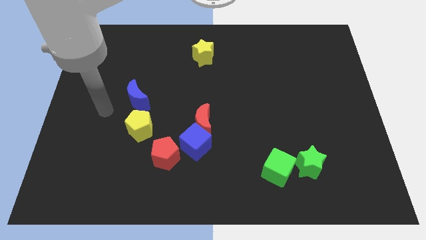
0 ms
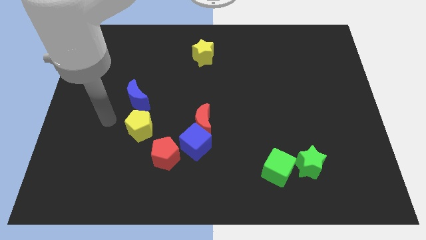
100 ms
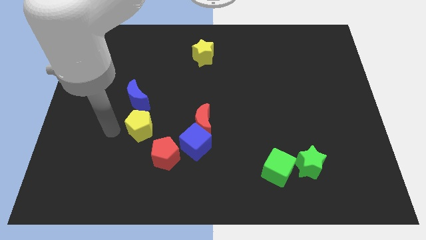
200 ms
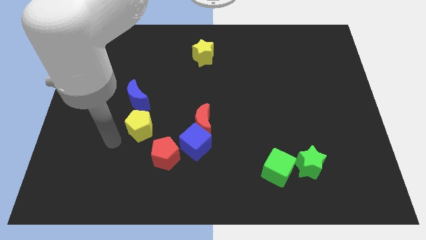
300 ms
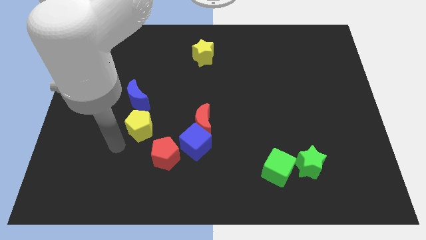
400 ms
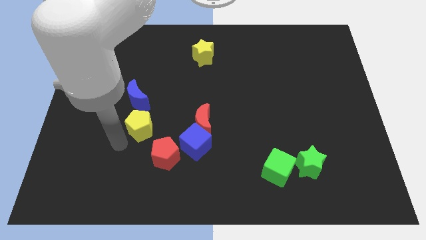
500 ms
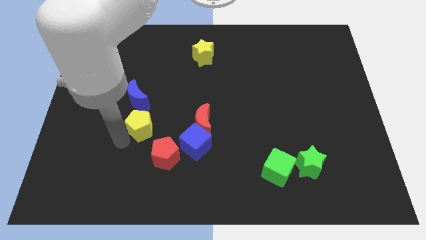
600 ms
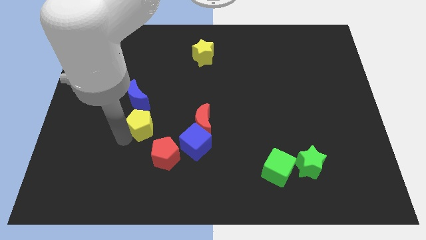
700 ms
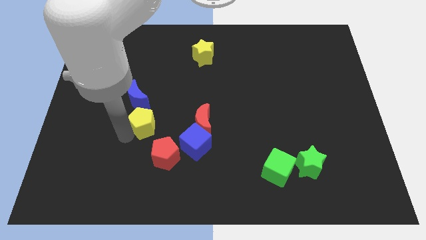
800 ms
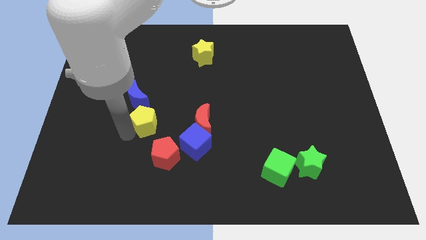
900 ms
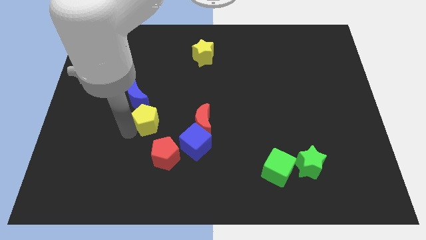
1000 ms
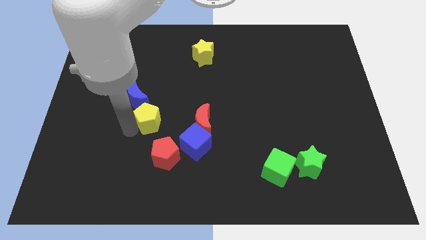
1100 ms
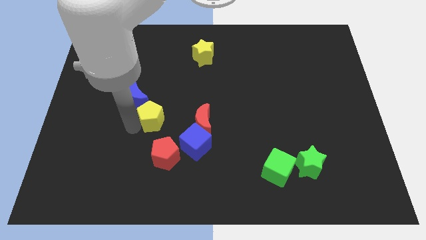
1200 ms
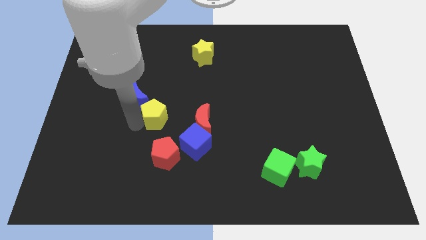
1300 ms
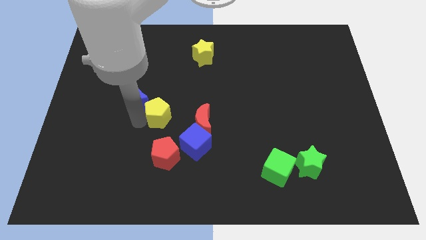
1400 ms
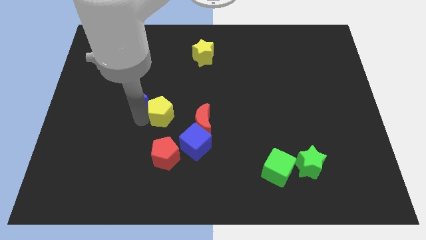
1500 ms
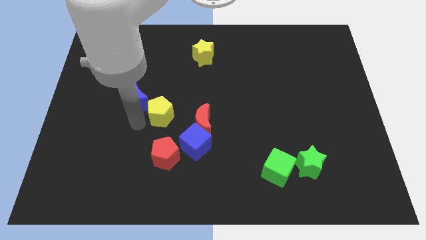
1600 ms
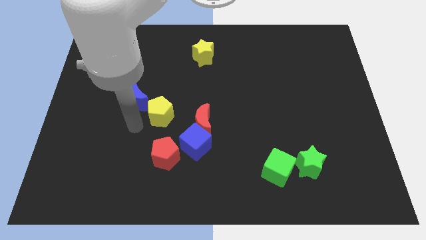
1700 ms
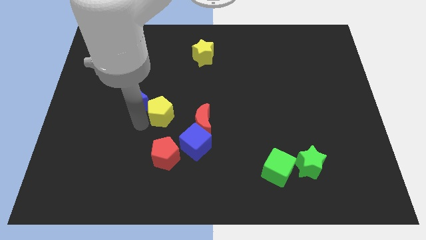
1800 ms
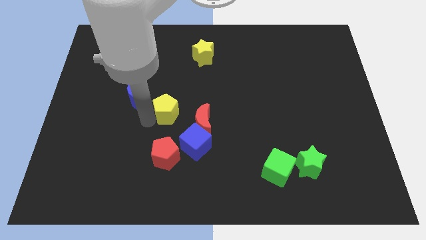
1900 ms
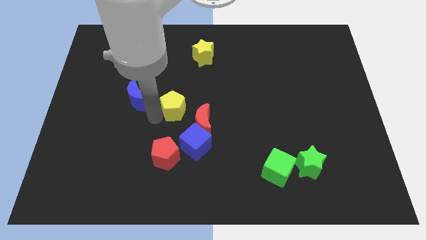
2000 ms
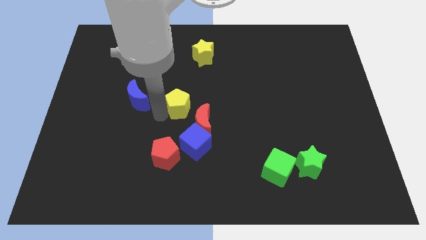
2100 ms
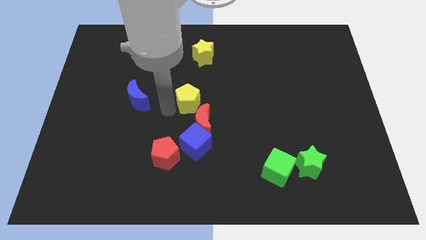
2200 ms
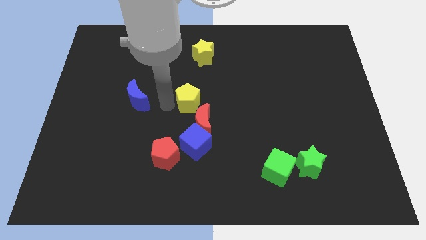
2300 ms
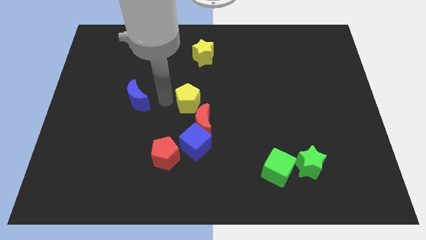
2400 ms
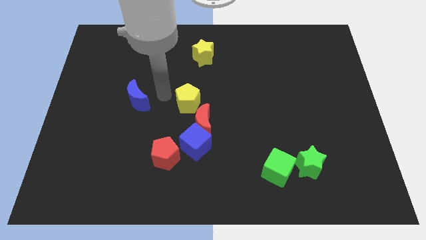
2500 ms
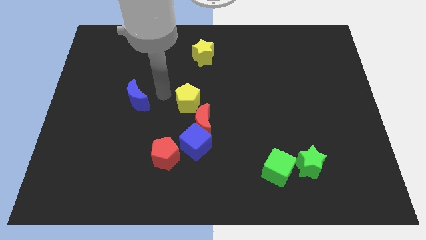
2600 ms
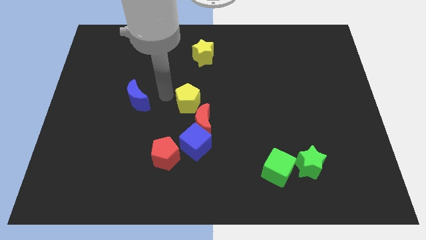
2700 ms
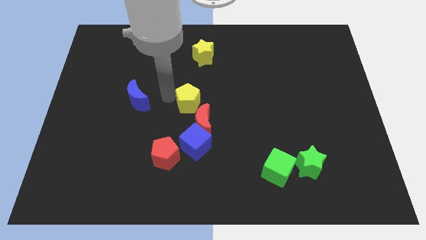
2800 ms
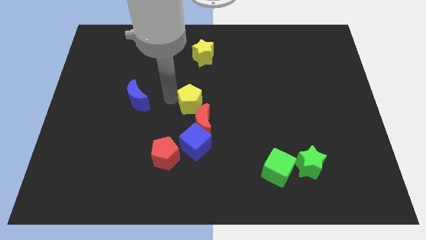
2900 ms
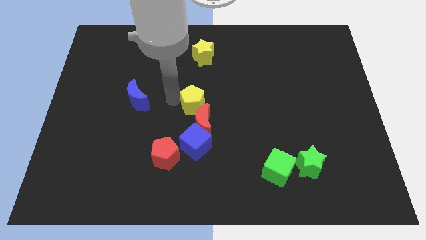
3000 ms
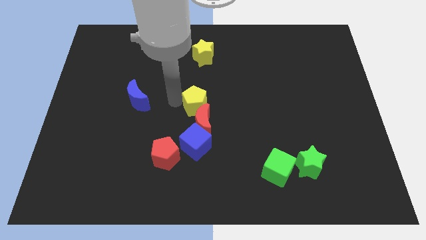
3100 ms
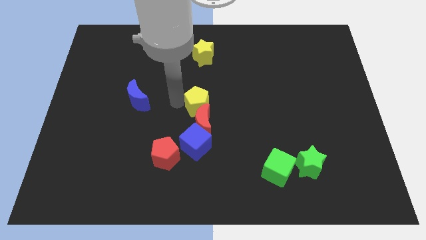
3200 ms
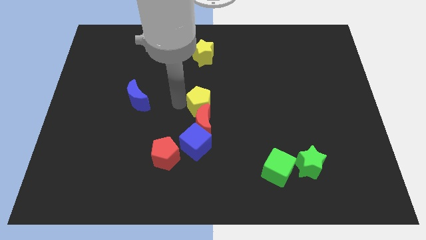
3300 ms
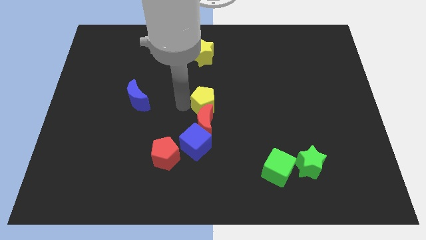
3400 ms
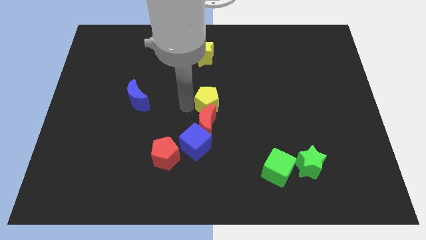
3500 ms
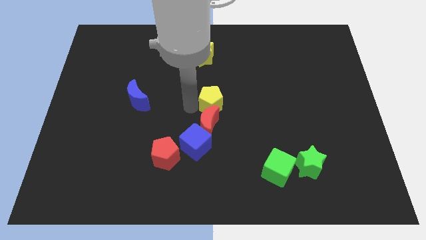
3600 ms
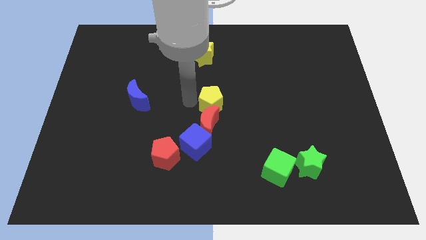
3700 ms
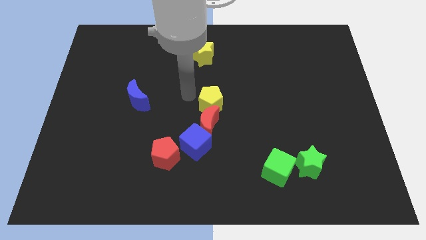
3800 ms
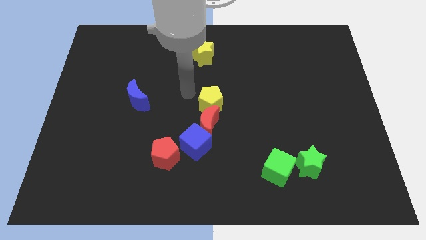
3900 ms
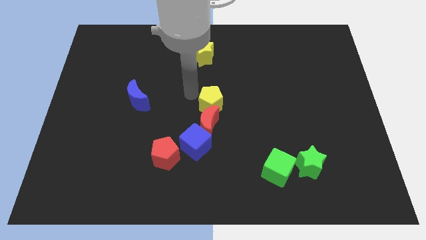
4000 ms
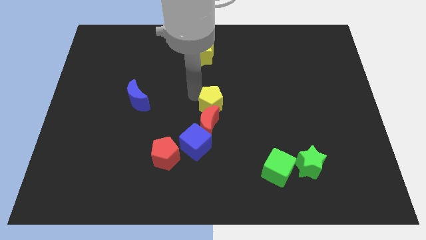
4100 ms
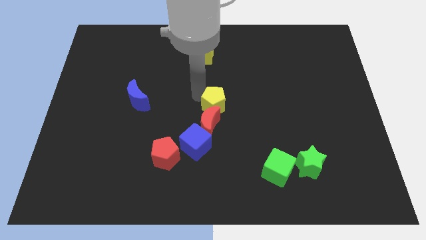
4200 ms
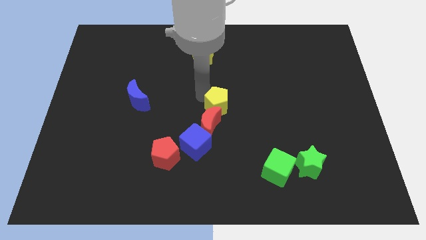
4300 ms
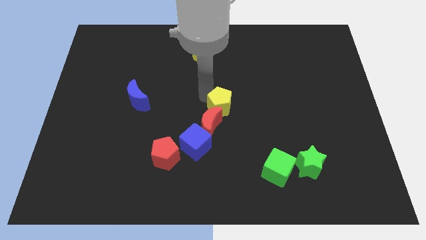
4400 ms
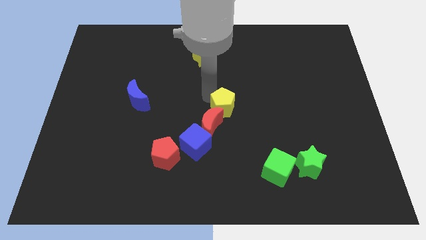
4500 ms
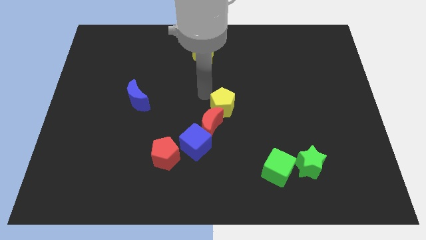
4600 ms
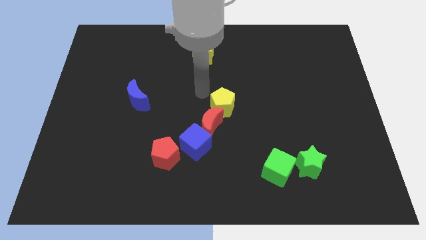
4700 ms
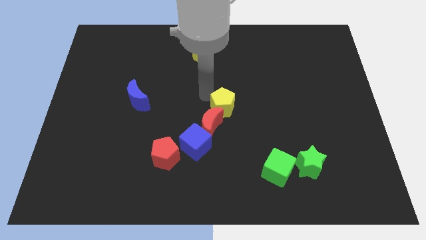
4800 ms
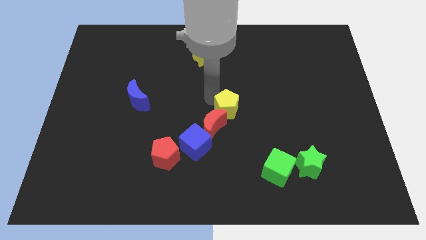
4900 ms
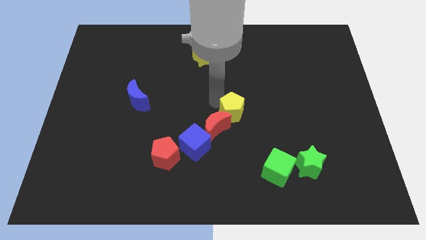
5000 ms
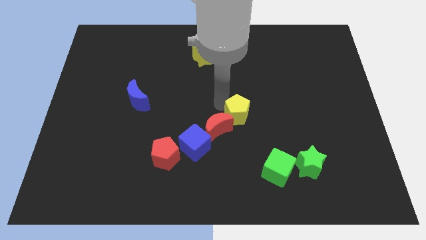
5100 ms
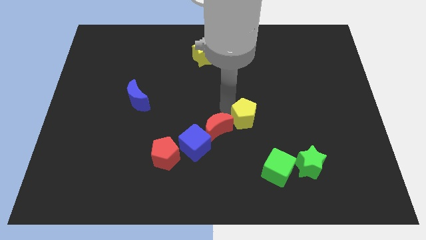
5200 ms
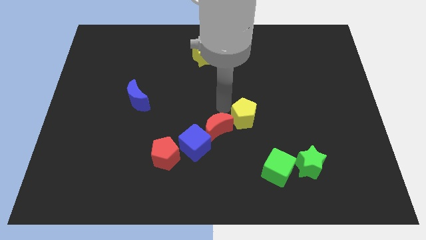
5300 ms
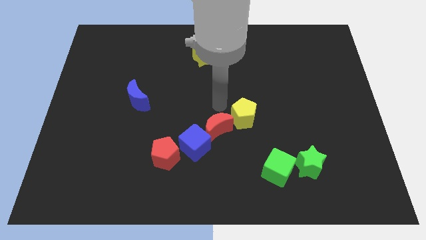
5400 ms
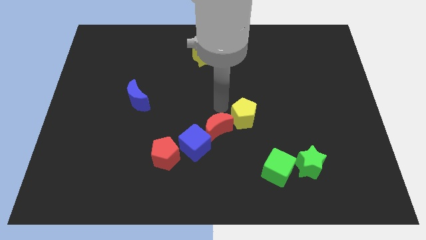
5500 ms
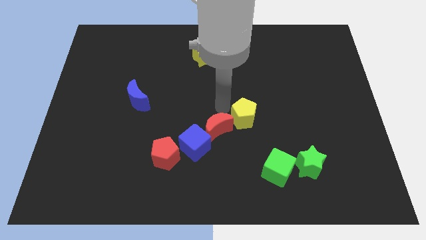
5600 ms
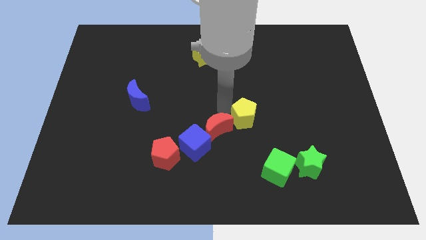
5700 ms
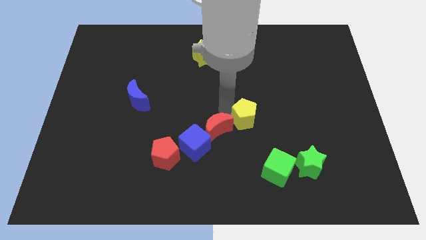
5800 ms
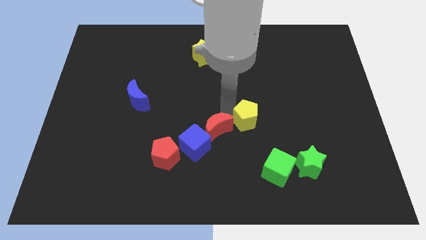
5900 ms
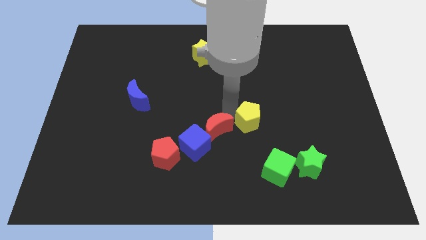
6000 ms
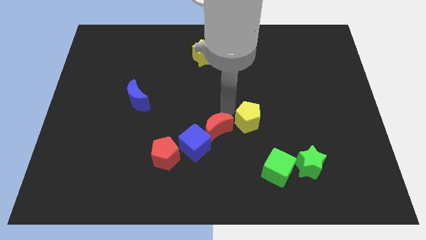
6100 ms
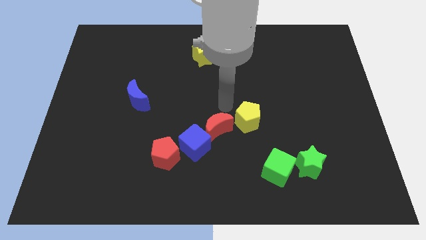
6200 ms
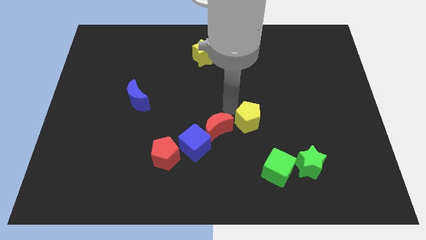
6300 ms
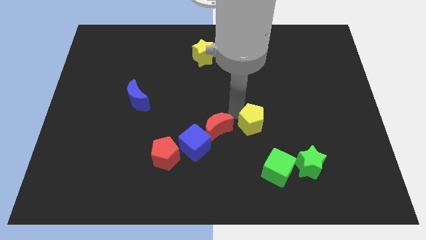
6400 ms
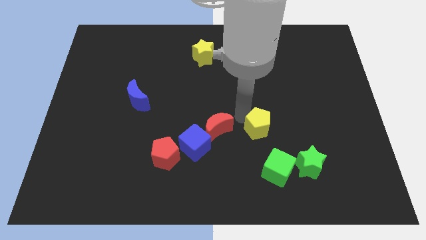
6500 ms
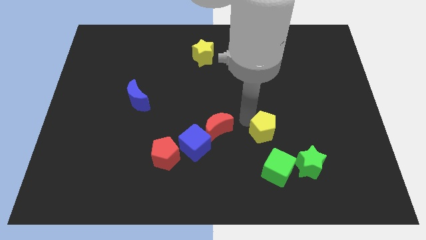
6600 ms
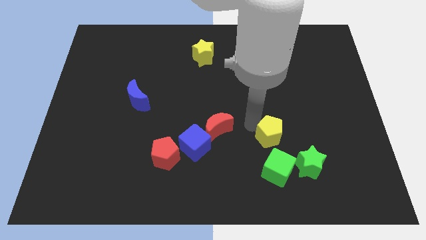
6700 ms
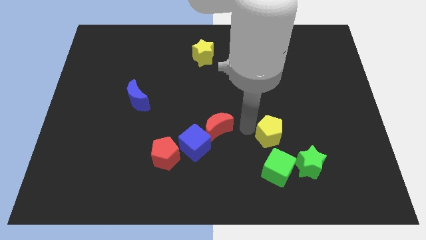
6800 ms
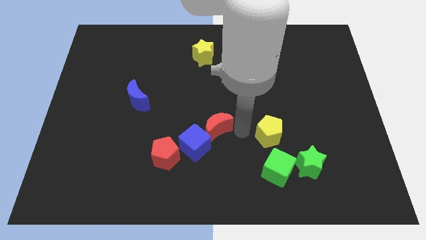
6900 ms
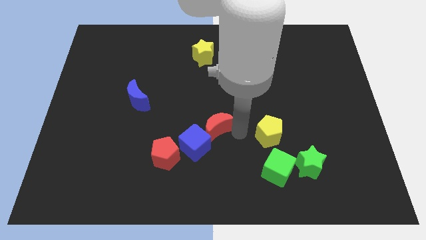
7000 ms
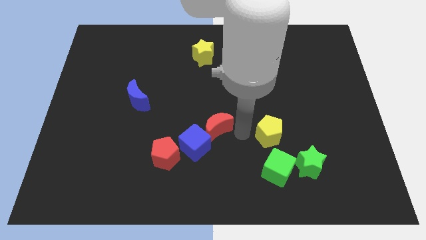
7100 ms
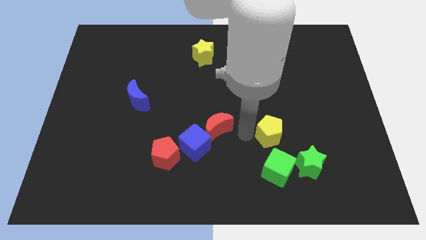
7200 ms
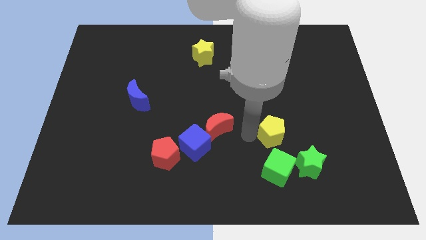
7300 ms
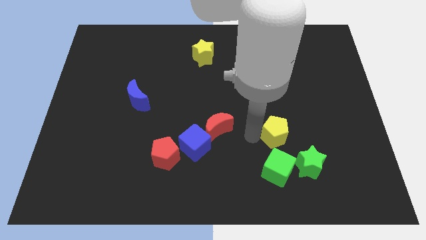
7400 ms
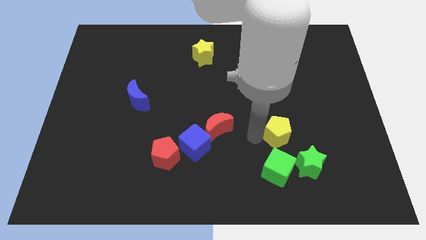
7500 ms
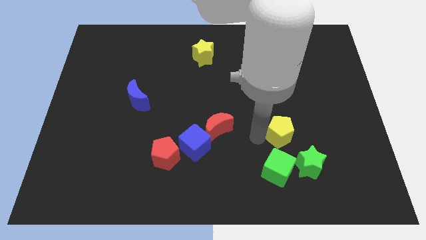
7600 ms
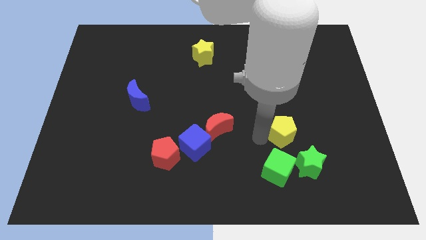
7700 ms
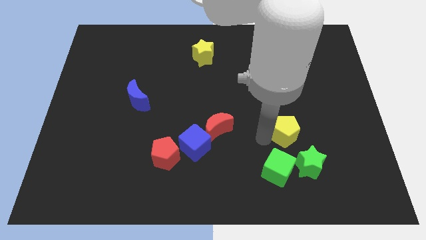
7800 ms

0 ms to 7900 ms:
push the yellow pentagon diagonally up and to the right of the green cube
